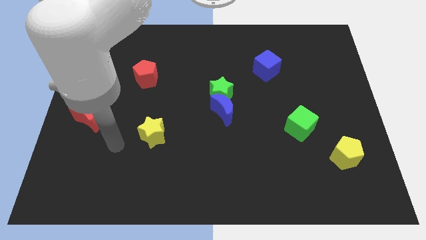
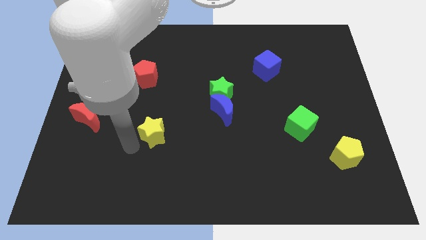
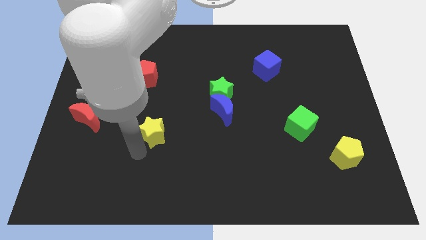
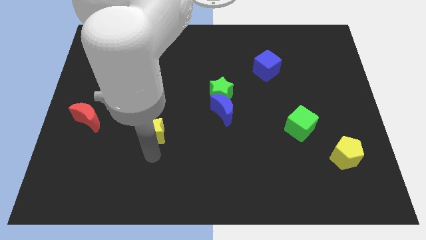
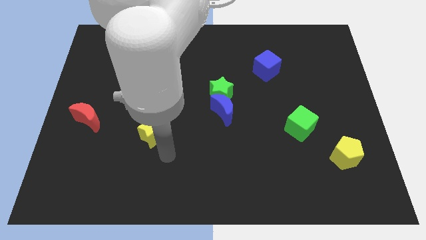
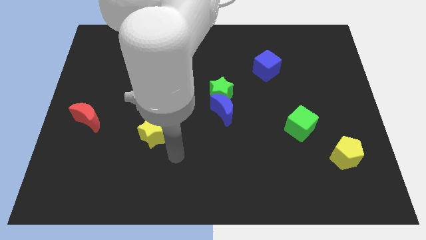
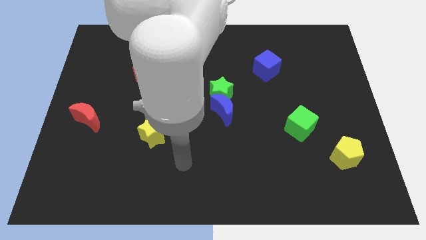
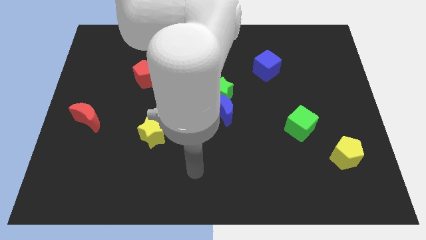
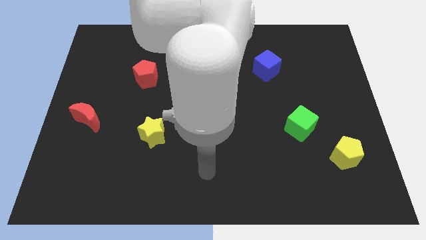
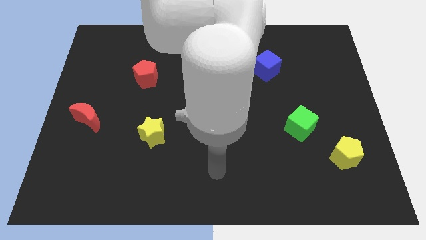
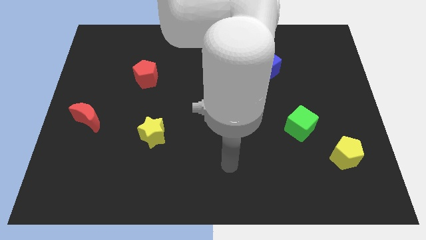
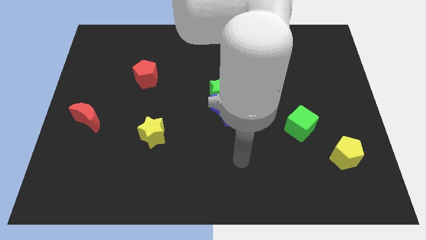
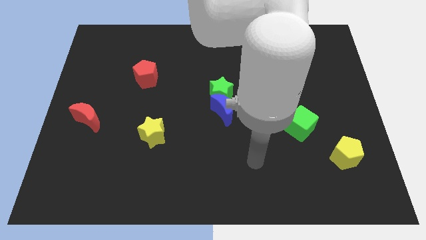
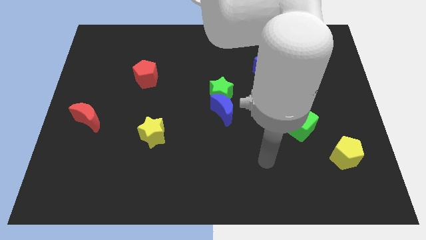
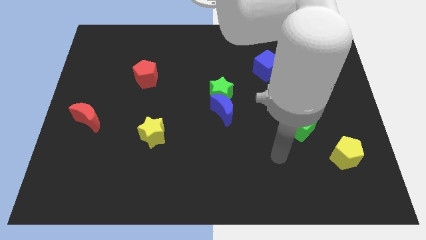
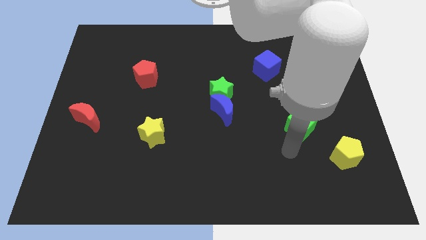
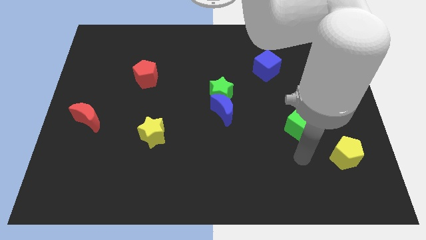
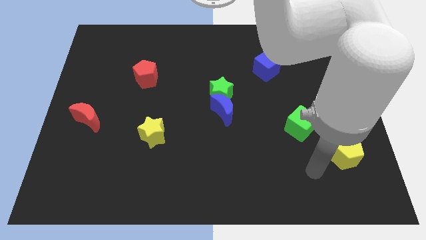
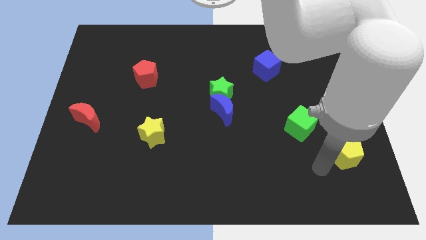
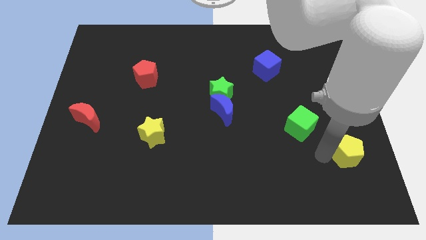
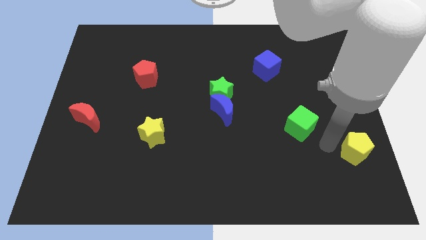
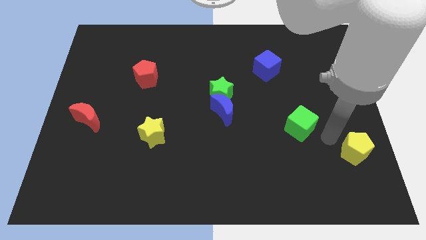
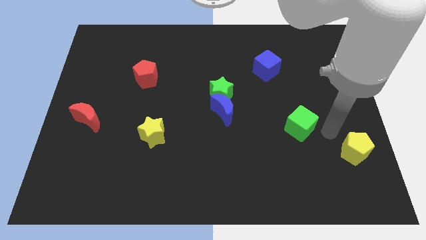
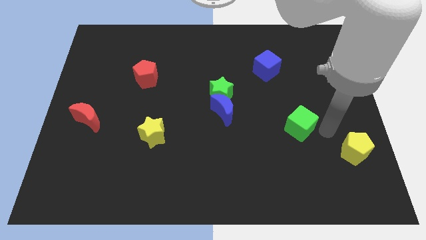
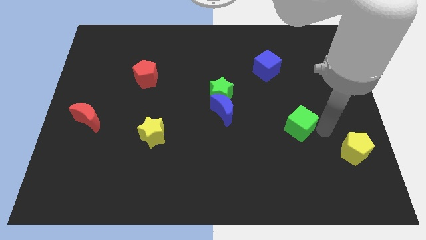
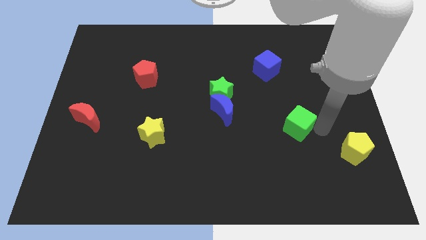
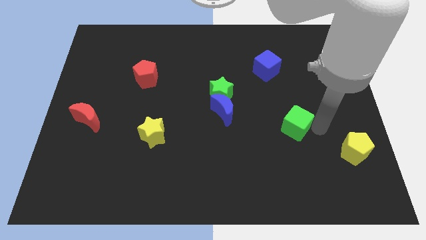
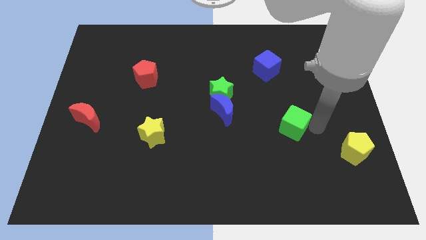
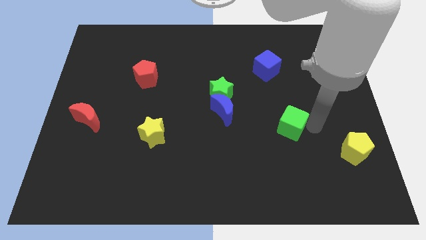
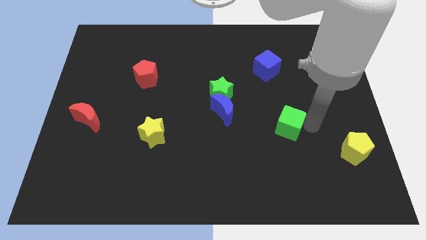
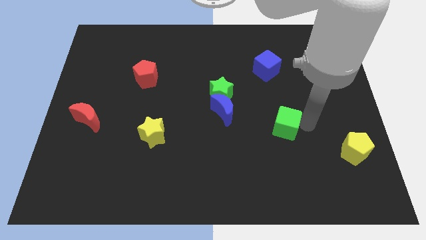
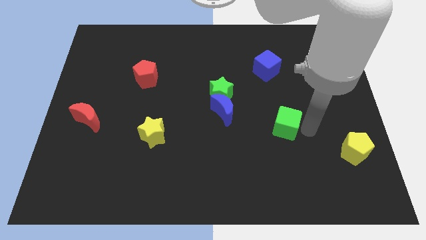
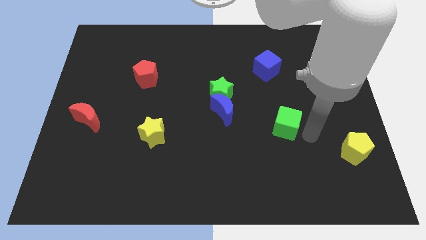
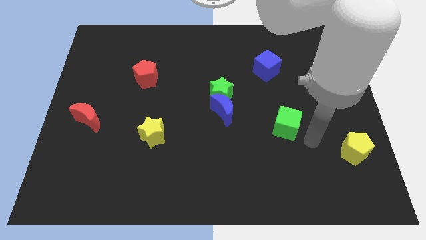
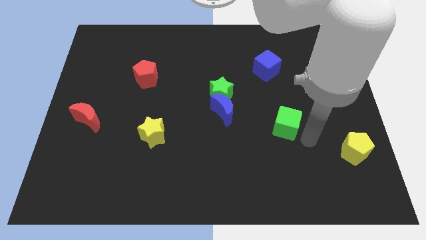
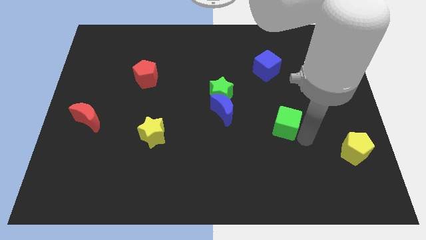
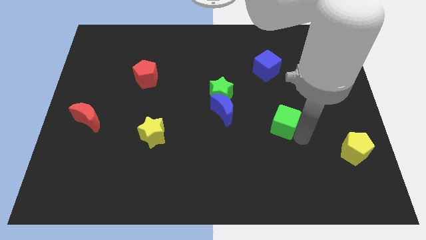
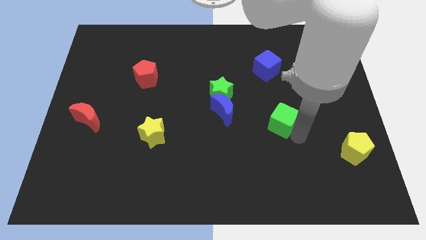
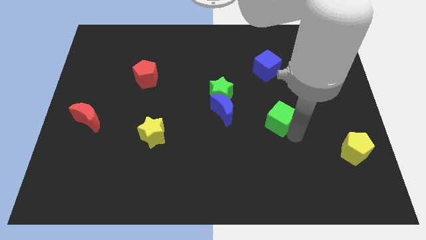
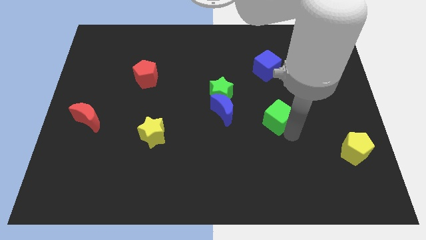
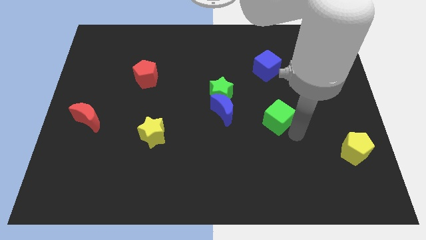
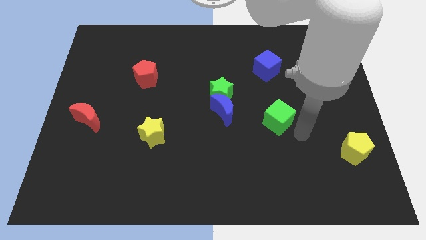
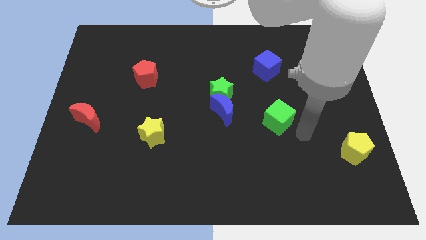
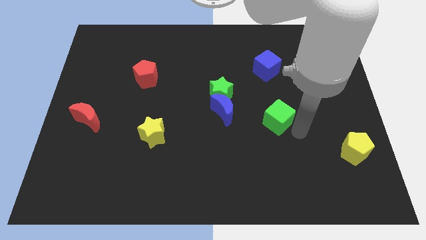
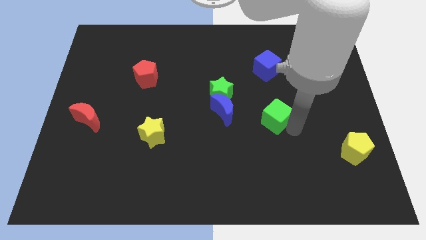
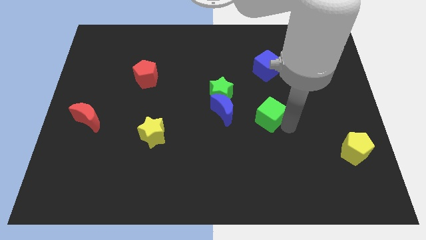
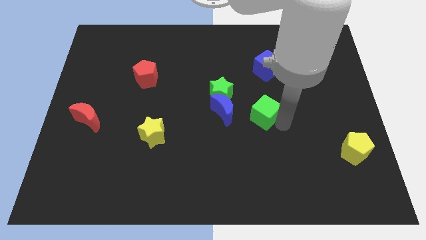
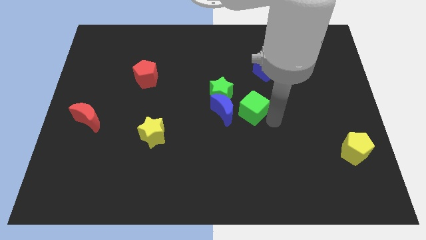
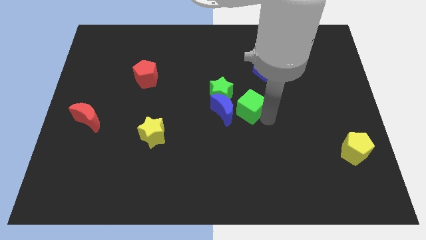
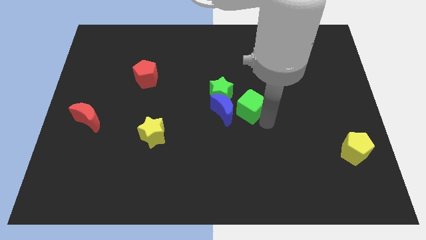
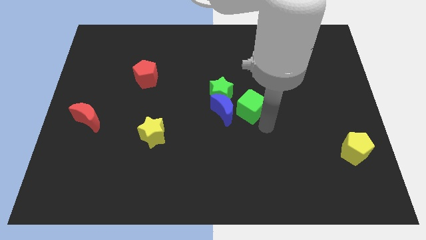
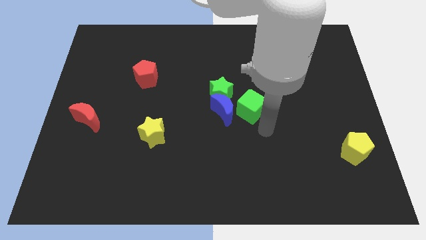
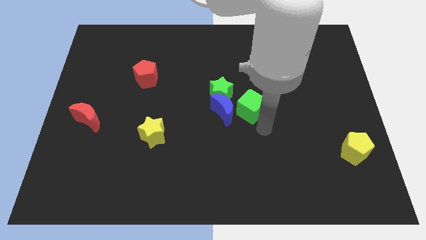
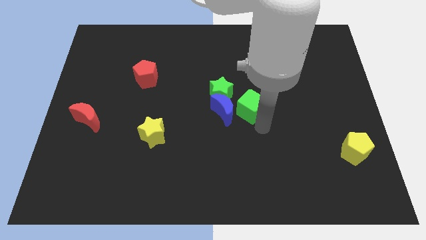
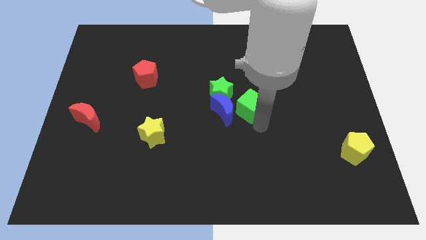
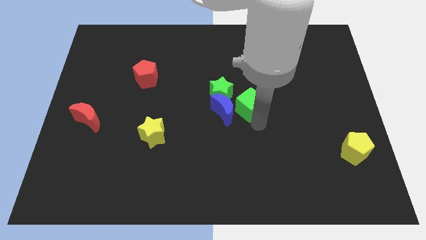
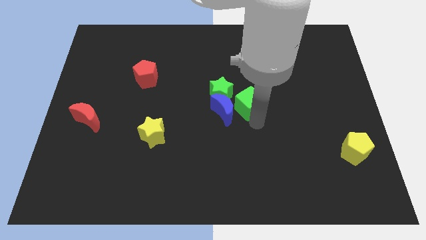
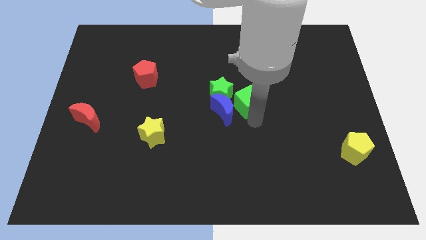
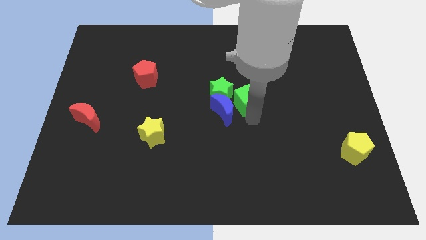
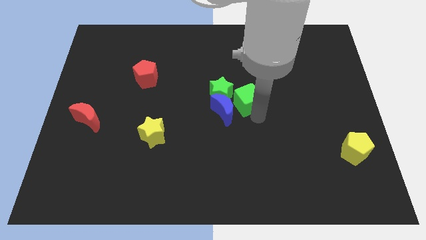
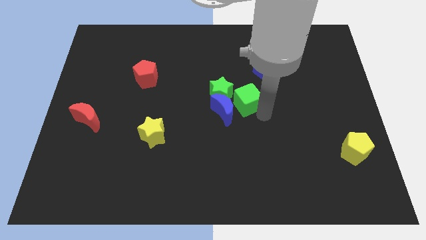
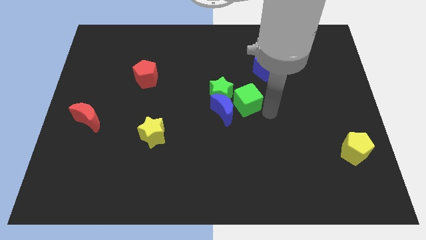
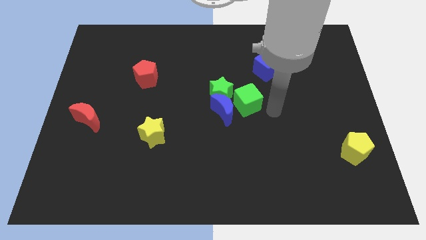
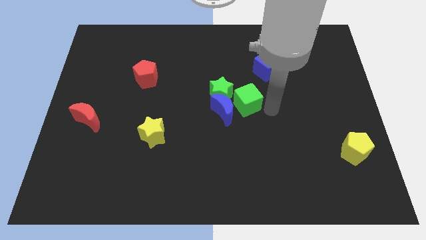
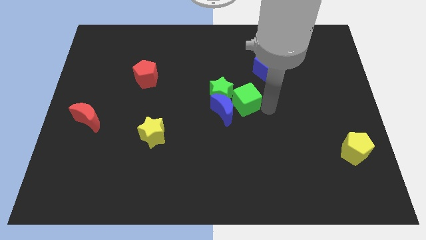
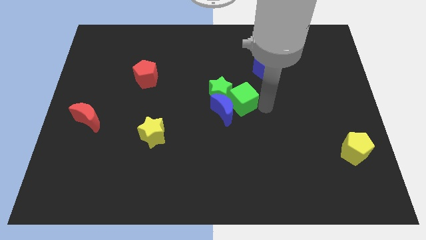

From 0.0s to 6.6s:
push the green cube close to the green star

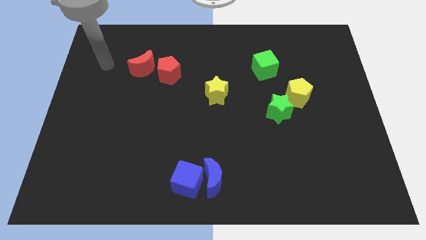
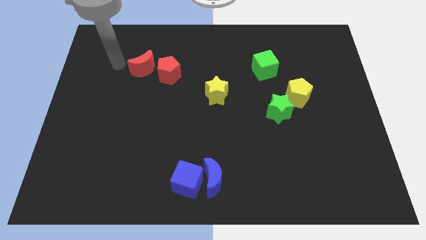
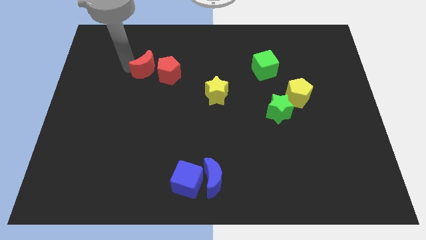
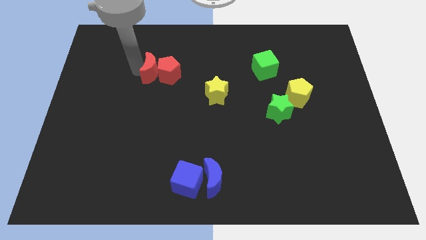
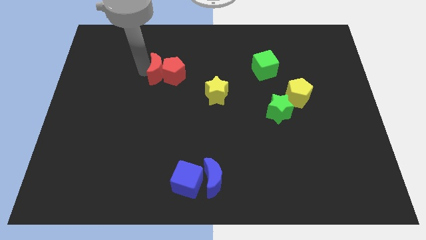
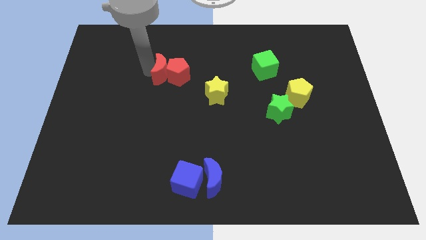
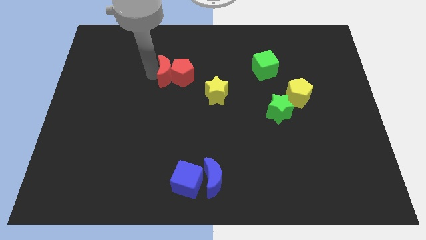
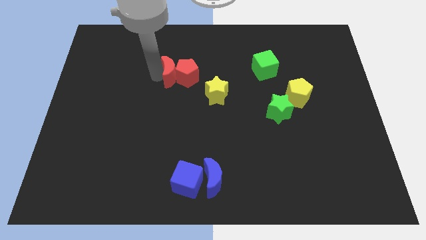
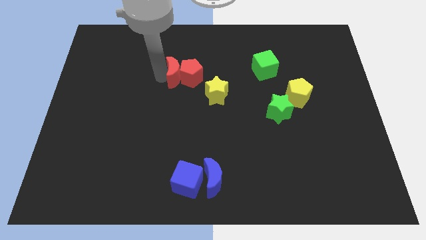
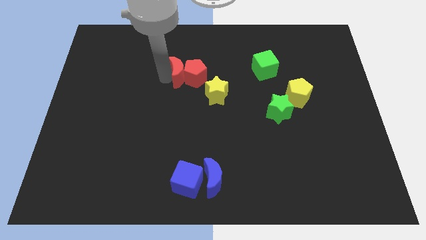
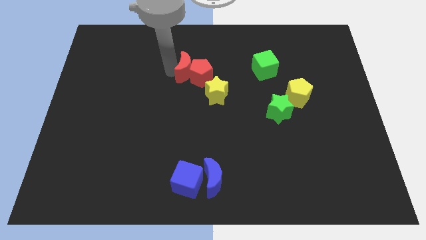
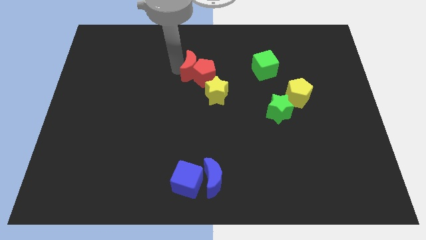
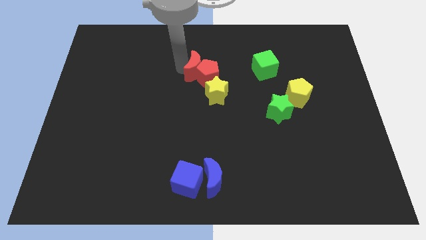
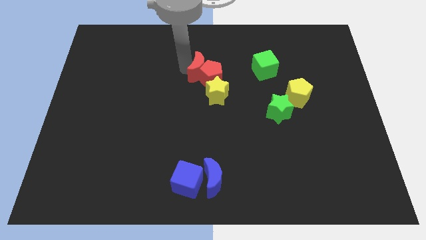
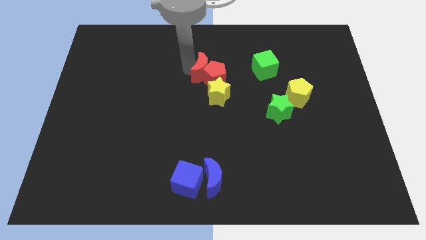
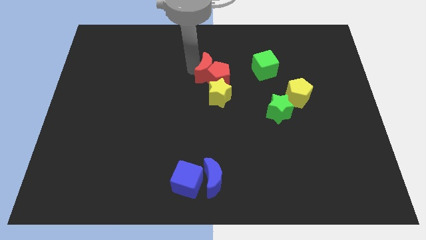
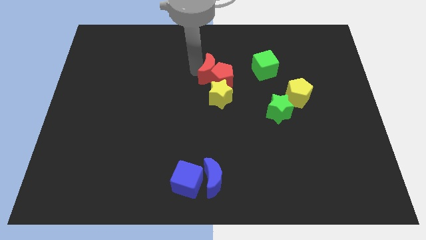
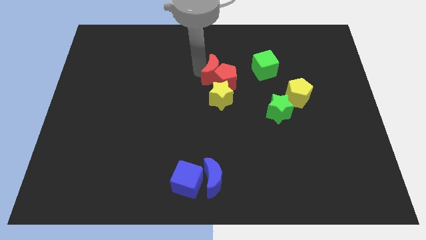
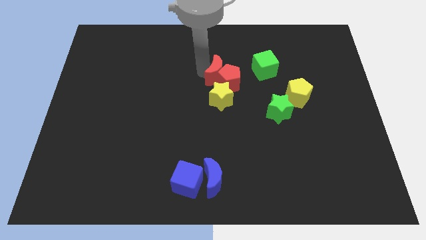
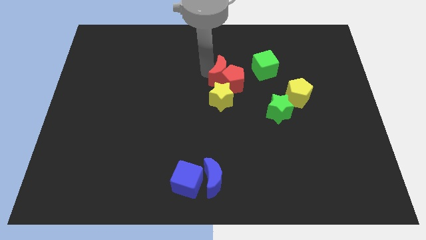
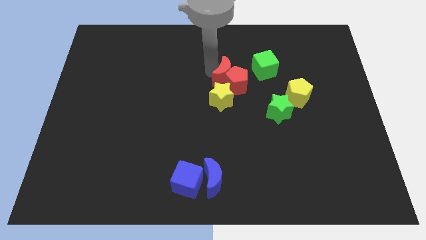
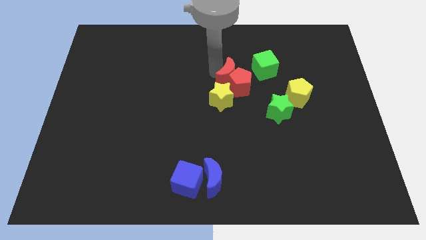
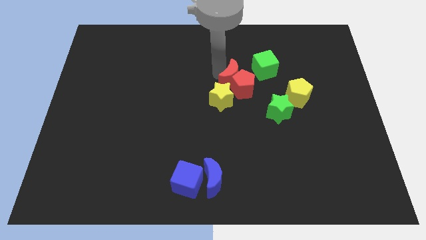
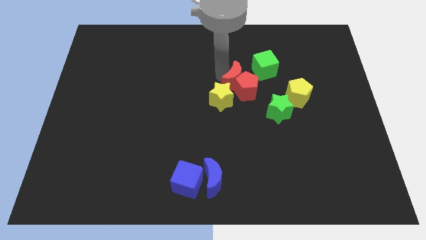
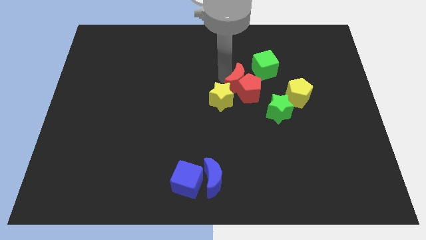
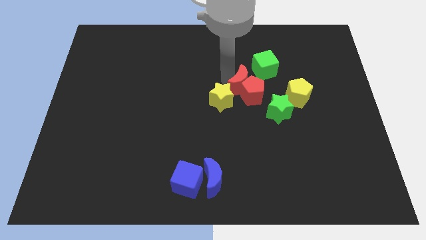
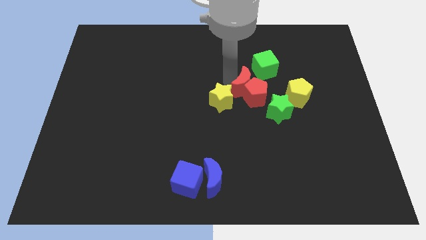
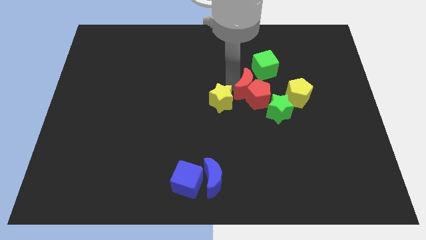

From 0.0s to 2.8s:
put the red pentagon close to the green star
